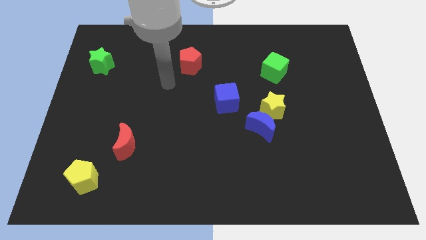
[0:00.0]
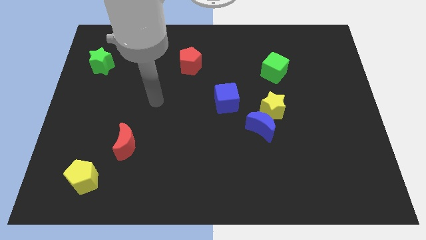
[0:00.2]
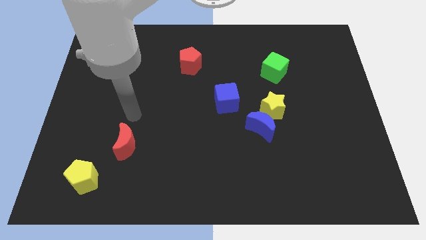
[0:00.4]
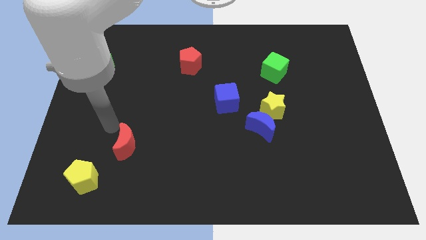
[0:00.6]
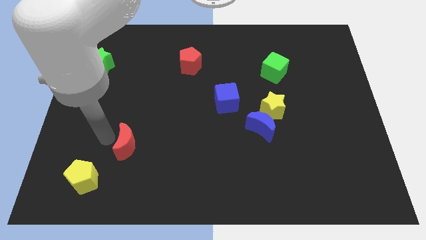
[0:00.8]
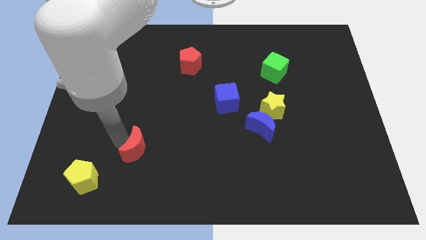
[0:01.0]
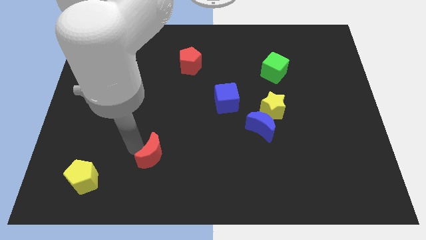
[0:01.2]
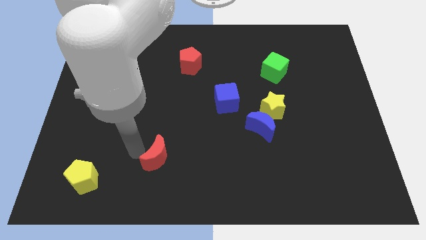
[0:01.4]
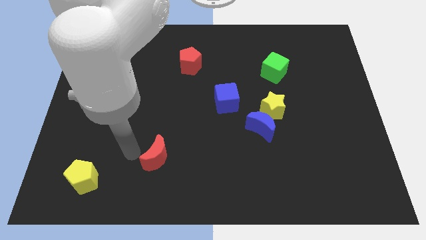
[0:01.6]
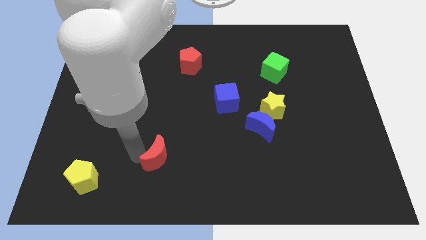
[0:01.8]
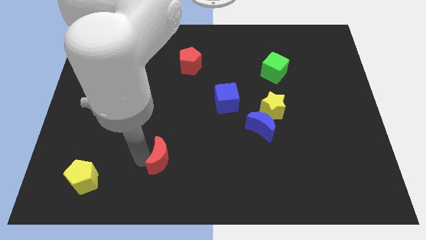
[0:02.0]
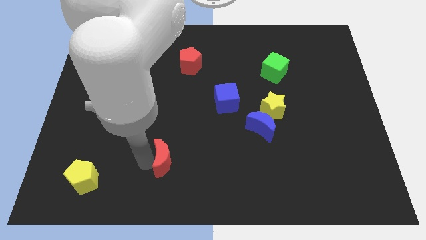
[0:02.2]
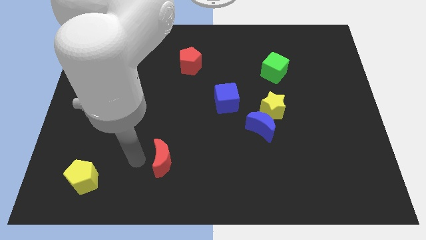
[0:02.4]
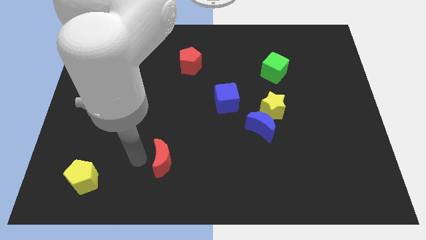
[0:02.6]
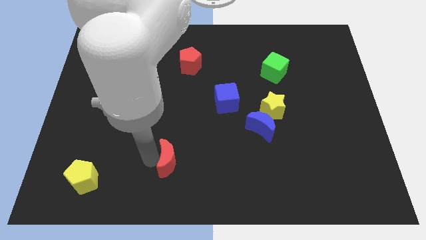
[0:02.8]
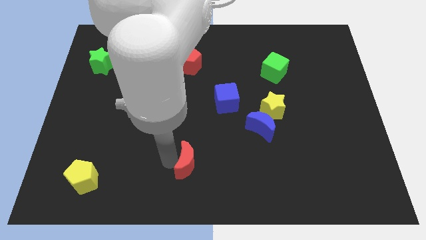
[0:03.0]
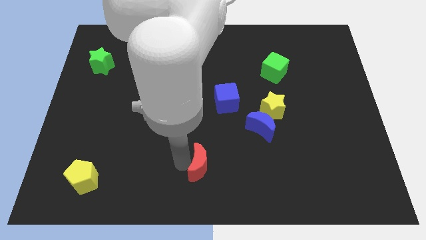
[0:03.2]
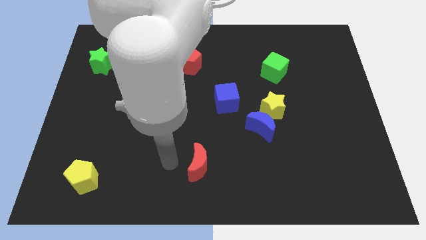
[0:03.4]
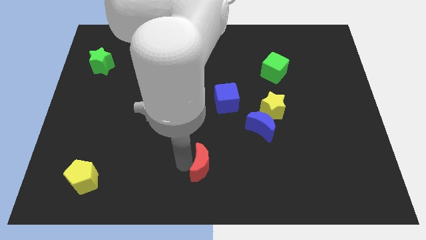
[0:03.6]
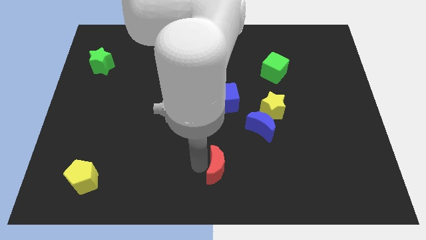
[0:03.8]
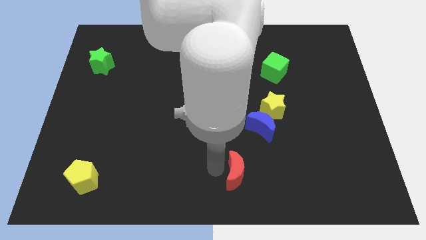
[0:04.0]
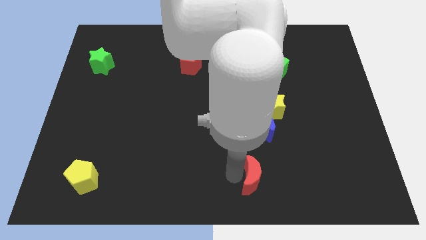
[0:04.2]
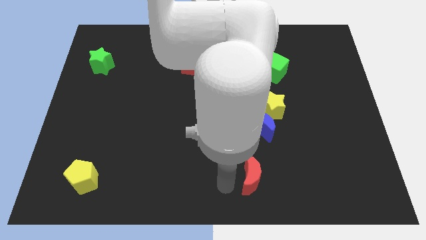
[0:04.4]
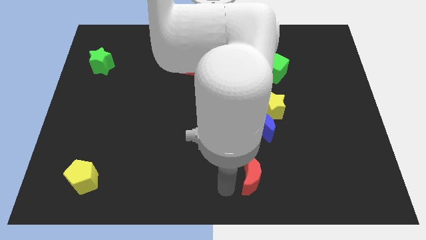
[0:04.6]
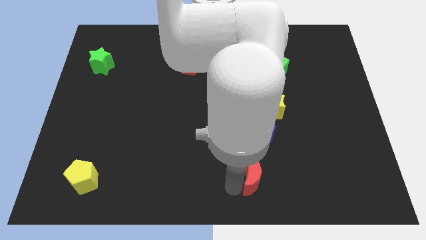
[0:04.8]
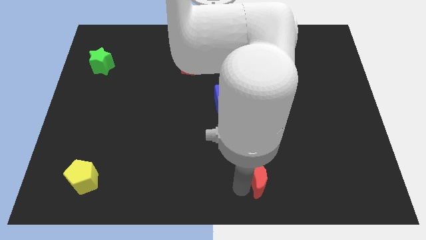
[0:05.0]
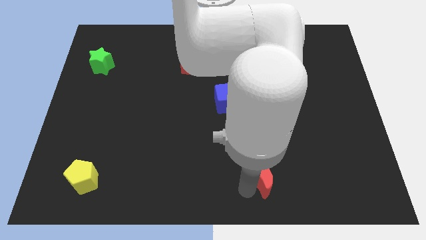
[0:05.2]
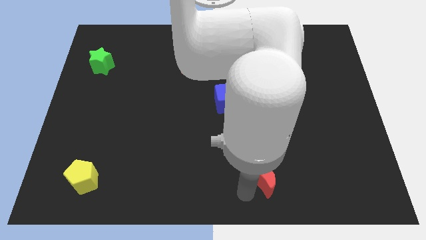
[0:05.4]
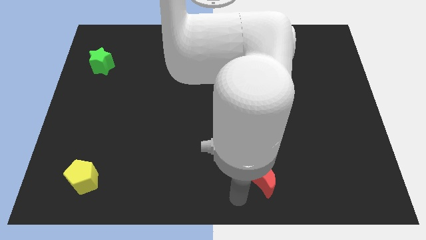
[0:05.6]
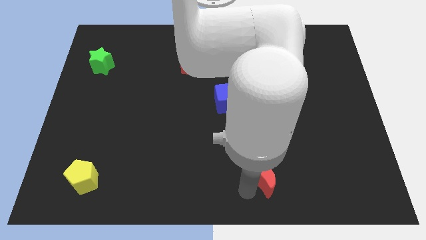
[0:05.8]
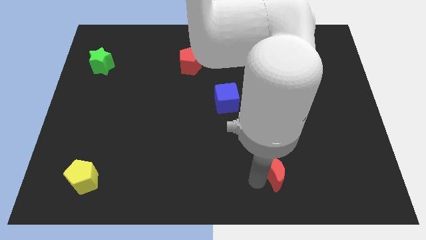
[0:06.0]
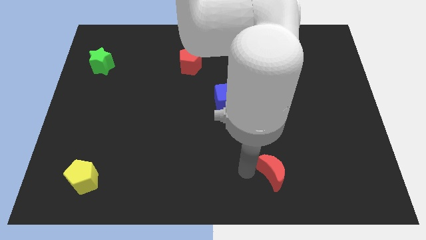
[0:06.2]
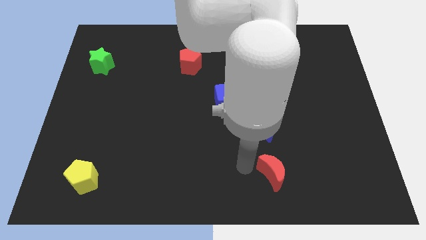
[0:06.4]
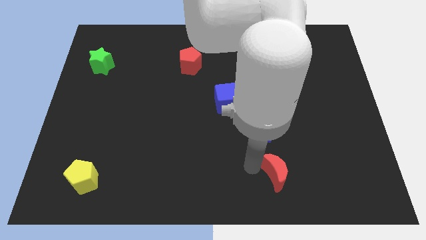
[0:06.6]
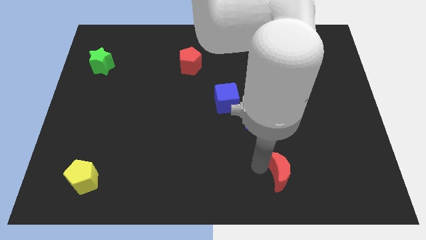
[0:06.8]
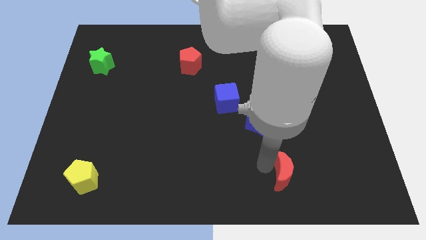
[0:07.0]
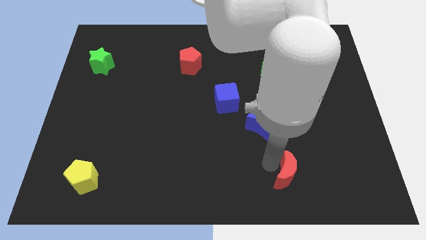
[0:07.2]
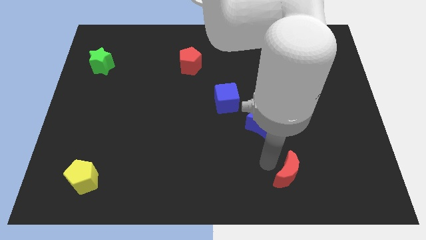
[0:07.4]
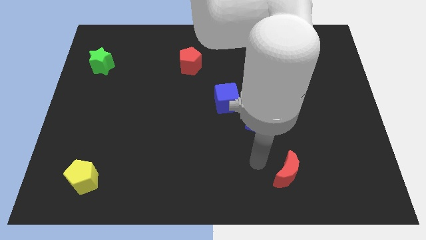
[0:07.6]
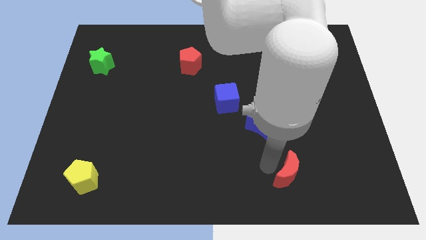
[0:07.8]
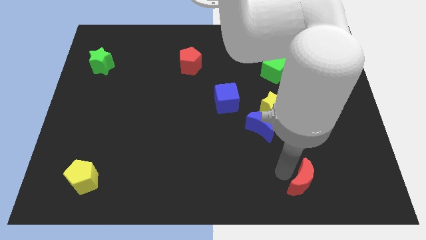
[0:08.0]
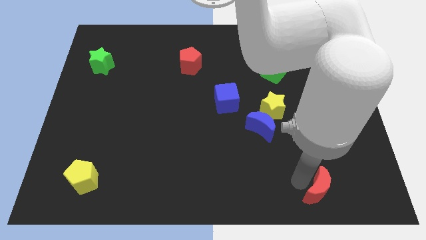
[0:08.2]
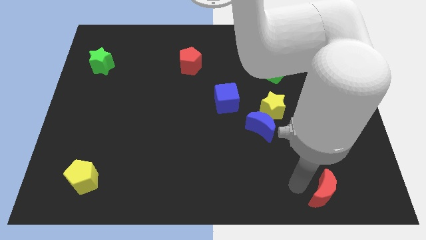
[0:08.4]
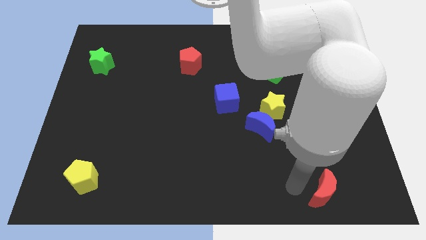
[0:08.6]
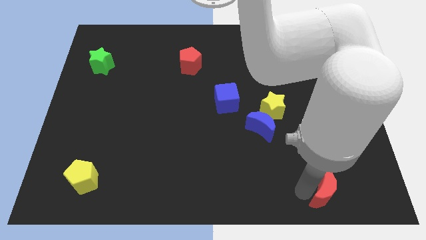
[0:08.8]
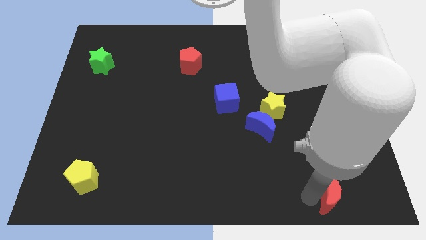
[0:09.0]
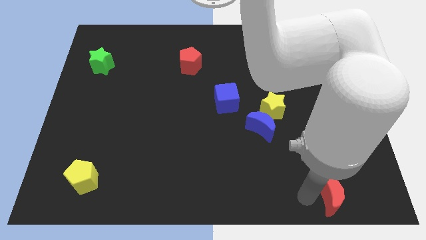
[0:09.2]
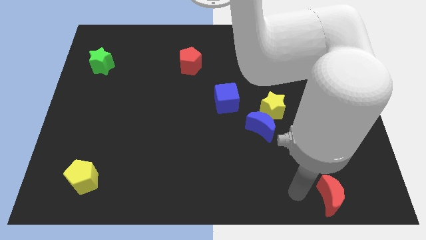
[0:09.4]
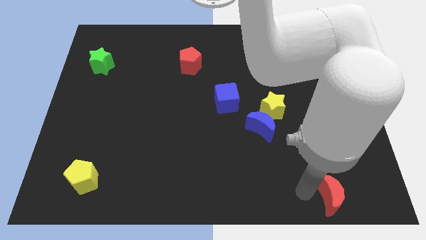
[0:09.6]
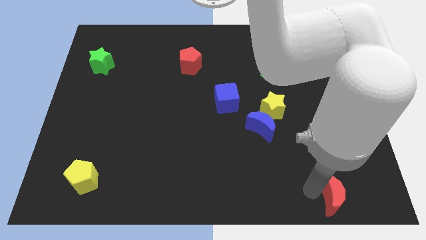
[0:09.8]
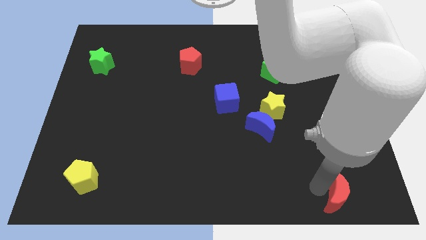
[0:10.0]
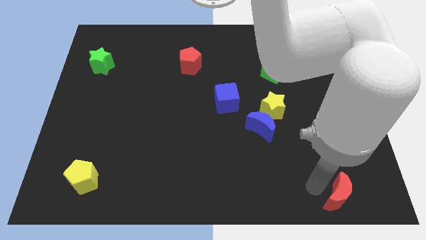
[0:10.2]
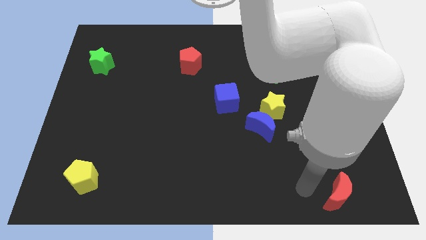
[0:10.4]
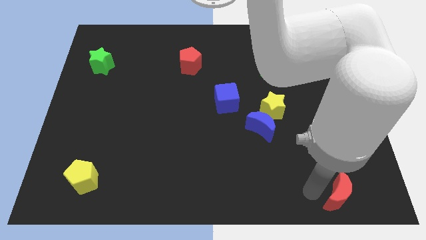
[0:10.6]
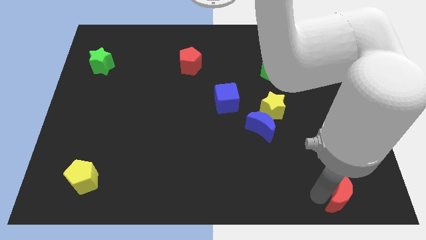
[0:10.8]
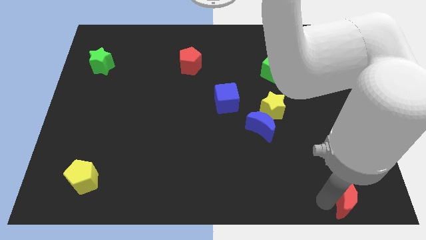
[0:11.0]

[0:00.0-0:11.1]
push the red moon to the lower right corner
